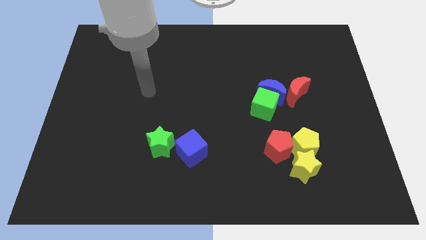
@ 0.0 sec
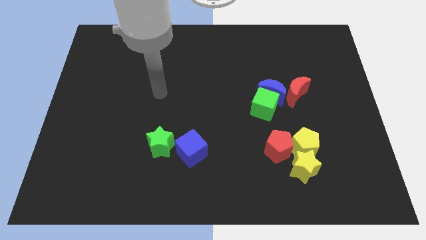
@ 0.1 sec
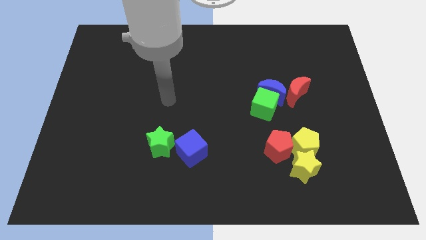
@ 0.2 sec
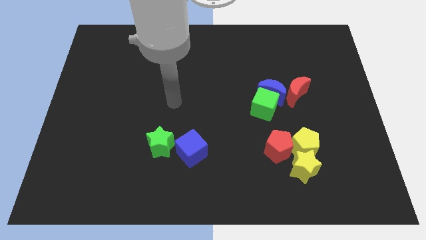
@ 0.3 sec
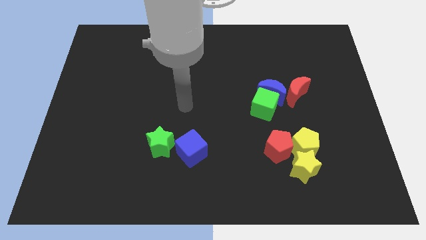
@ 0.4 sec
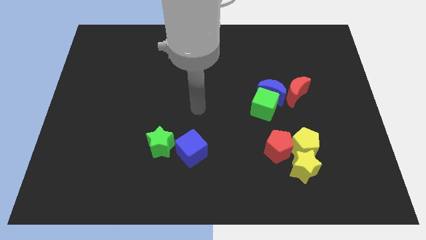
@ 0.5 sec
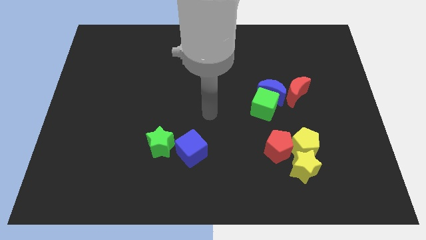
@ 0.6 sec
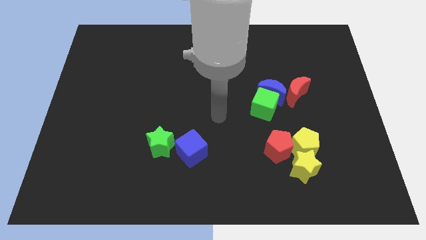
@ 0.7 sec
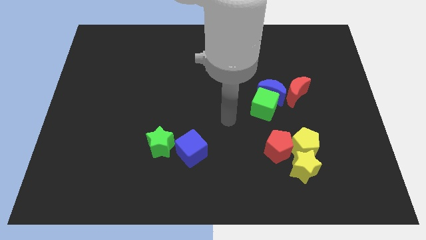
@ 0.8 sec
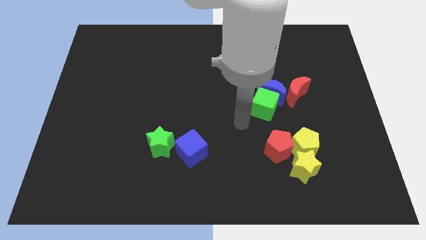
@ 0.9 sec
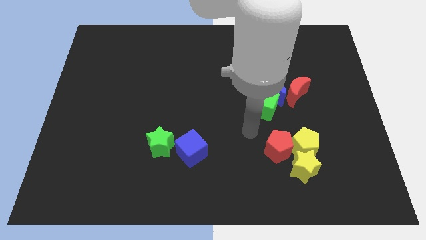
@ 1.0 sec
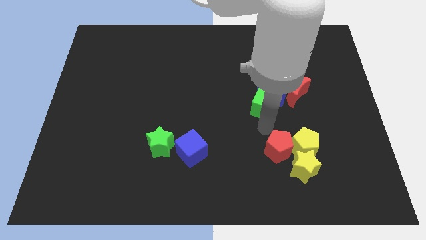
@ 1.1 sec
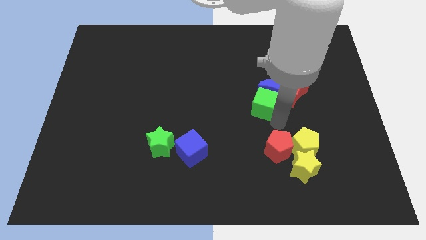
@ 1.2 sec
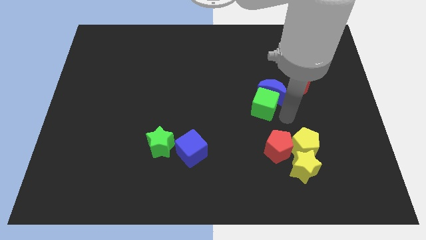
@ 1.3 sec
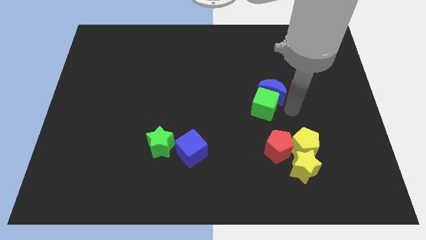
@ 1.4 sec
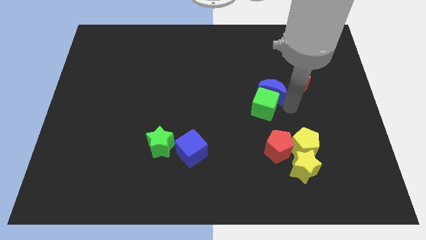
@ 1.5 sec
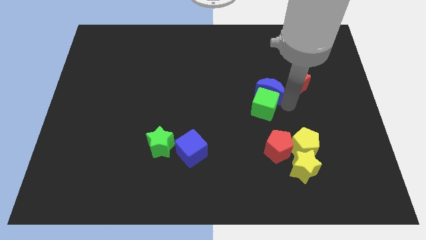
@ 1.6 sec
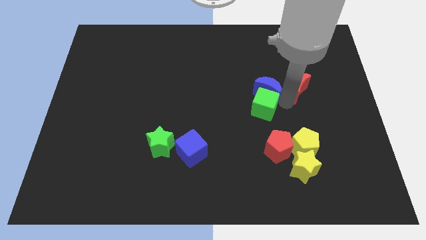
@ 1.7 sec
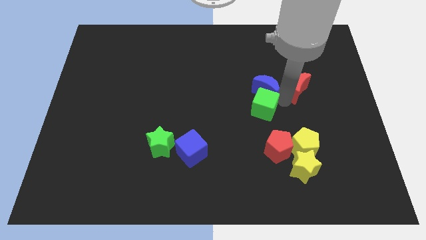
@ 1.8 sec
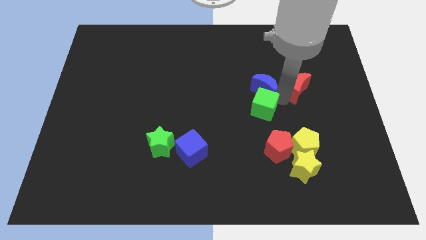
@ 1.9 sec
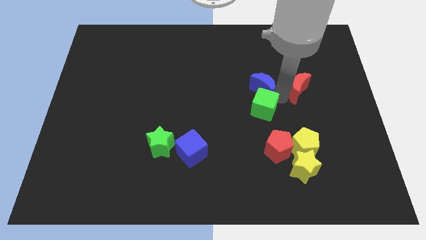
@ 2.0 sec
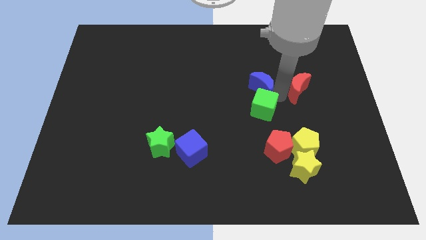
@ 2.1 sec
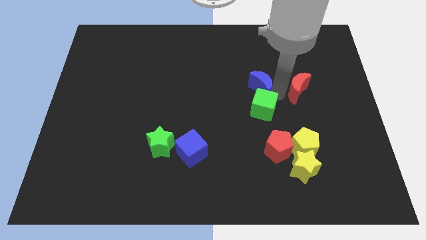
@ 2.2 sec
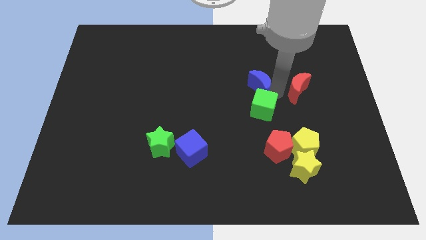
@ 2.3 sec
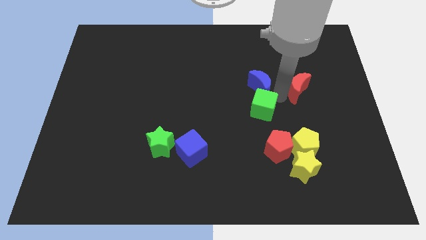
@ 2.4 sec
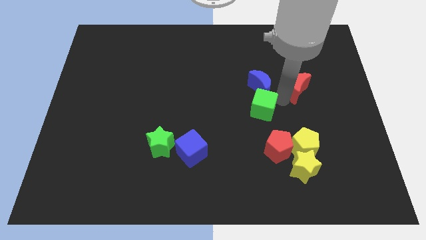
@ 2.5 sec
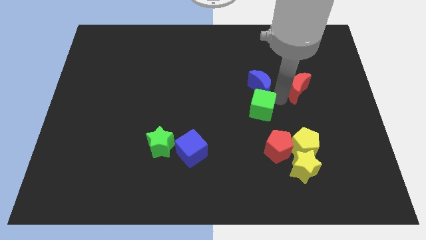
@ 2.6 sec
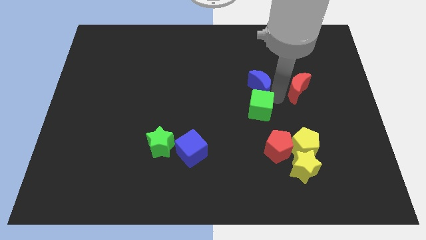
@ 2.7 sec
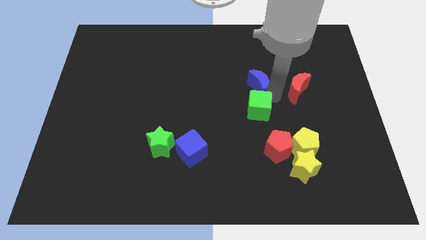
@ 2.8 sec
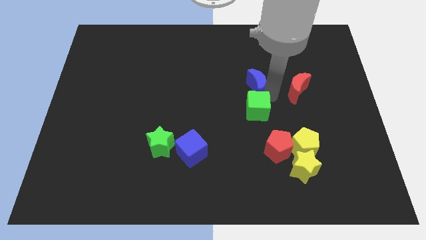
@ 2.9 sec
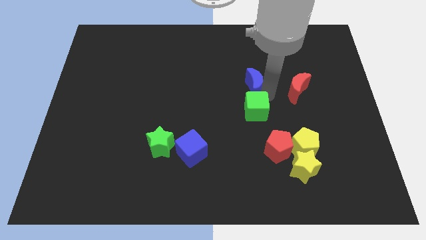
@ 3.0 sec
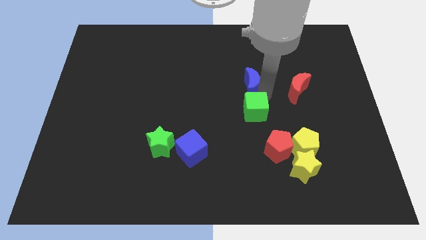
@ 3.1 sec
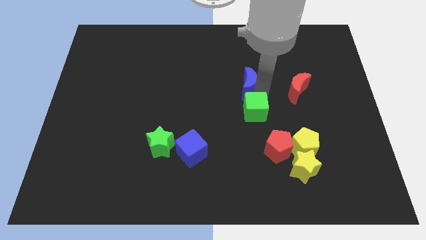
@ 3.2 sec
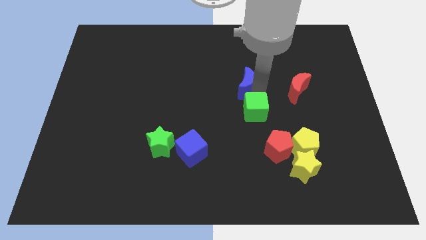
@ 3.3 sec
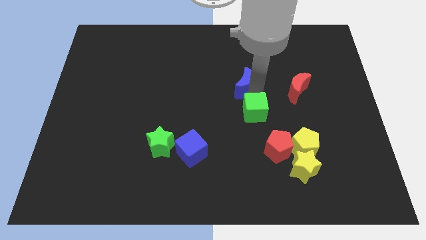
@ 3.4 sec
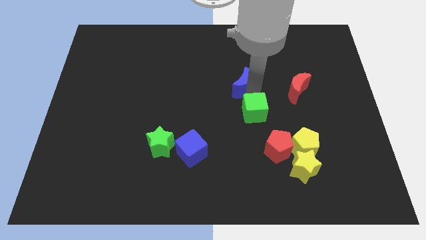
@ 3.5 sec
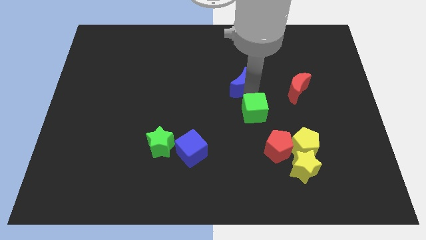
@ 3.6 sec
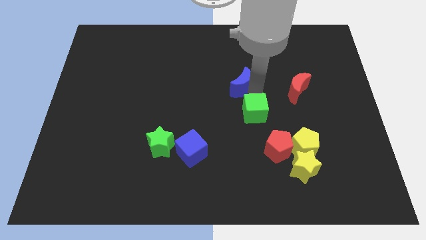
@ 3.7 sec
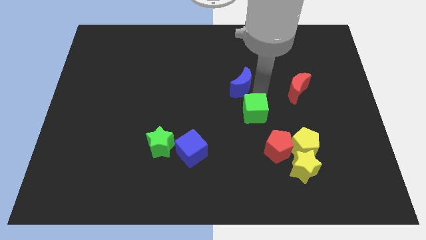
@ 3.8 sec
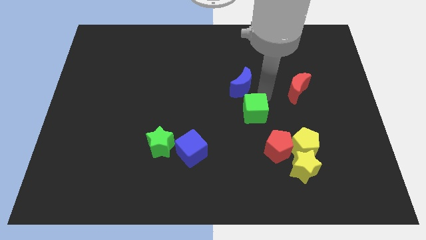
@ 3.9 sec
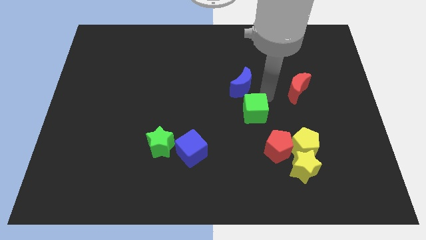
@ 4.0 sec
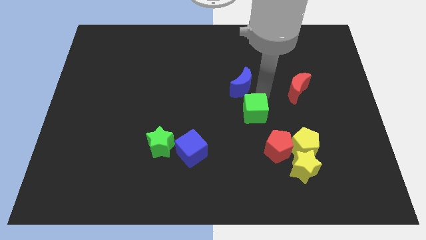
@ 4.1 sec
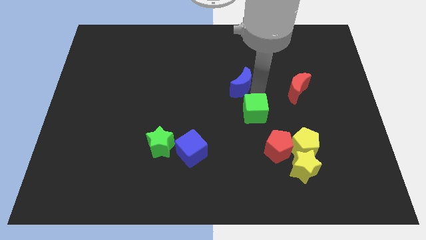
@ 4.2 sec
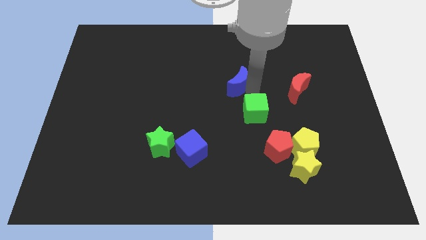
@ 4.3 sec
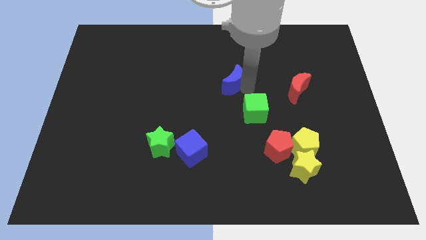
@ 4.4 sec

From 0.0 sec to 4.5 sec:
separate the blue moon from the green cube and red moon

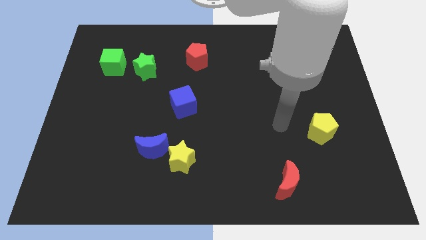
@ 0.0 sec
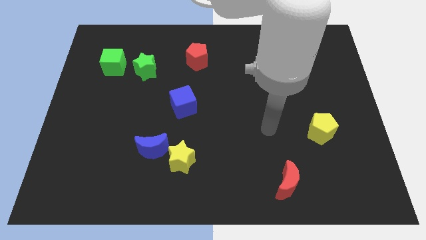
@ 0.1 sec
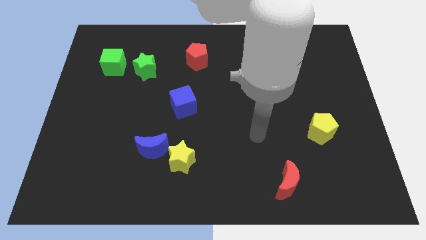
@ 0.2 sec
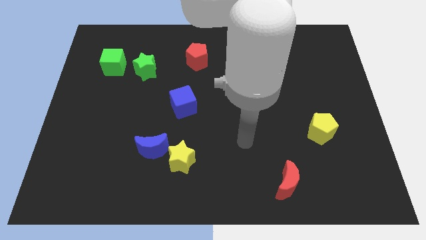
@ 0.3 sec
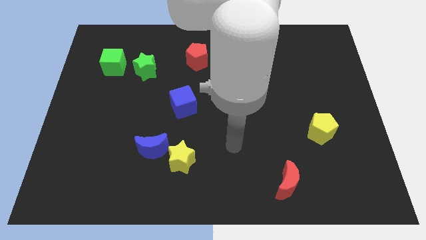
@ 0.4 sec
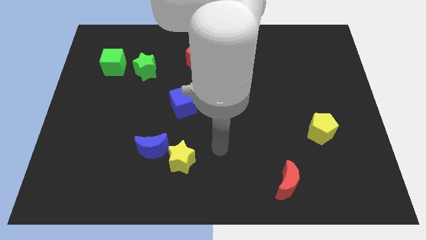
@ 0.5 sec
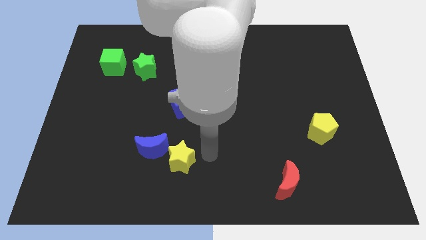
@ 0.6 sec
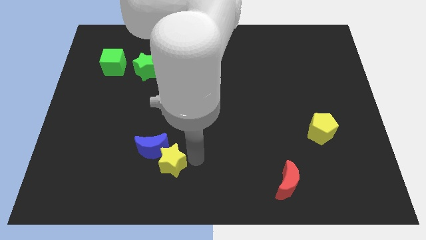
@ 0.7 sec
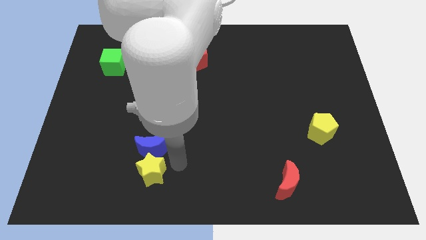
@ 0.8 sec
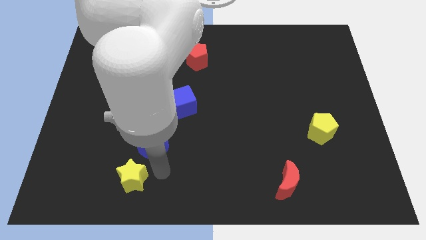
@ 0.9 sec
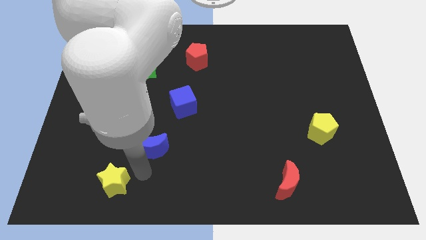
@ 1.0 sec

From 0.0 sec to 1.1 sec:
move the blue moon away from the yellow star

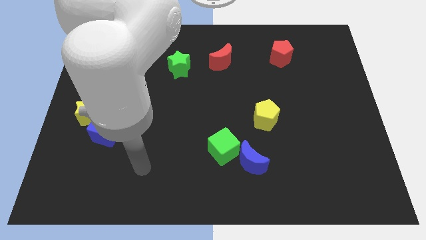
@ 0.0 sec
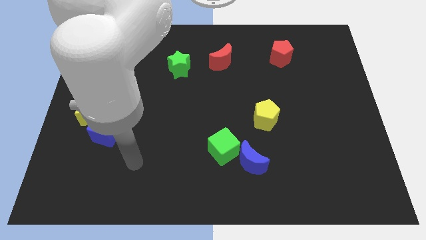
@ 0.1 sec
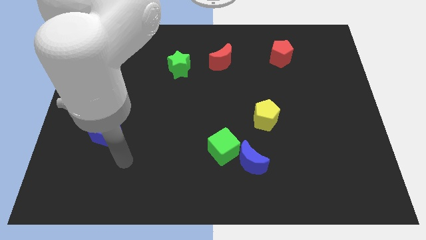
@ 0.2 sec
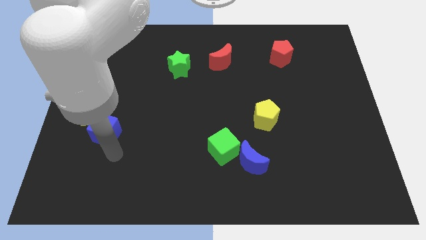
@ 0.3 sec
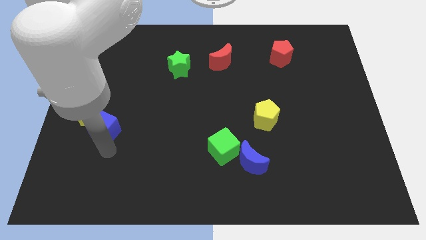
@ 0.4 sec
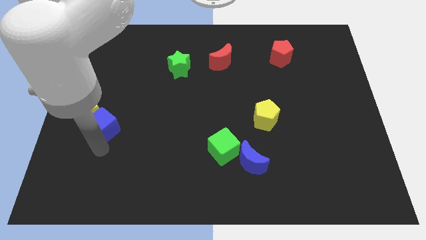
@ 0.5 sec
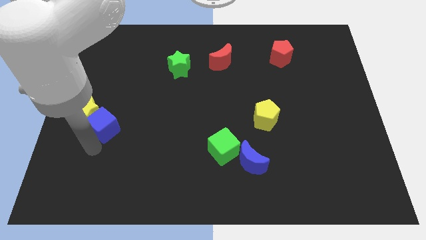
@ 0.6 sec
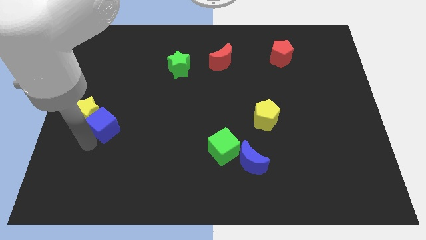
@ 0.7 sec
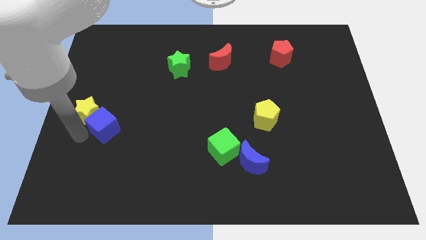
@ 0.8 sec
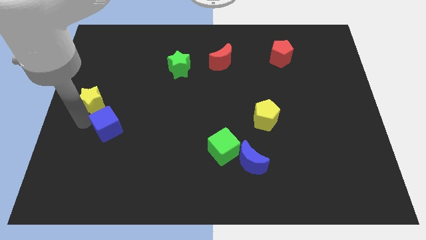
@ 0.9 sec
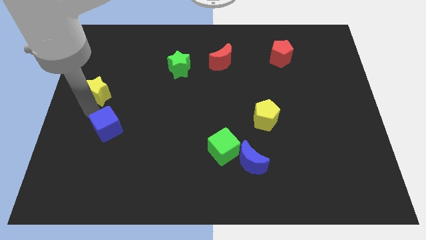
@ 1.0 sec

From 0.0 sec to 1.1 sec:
separate the blue cube from the yellow star

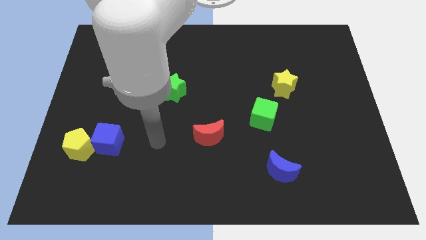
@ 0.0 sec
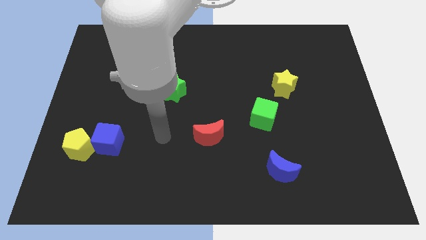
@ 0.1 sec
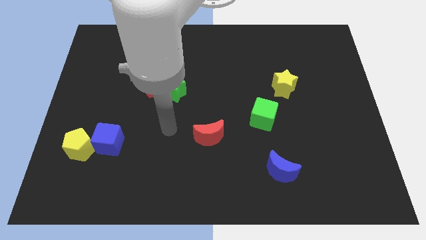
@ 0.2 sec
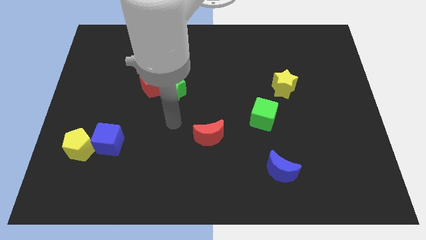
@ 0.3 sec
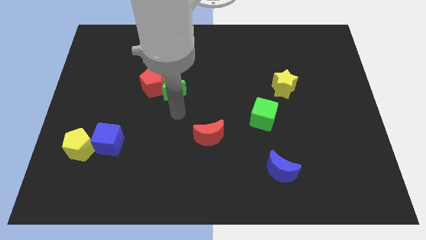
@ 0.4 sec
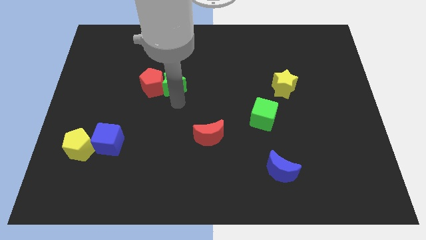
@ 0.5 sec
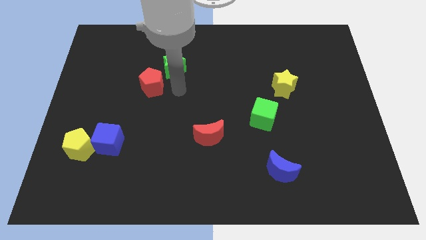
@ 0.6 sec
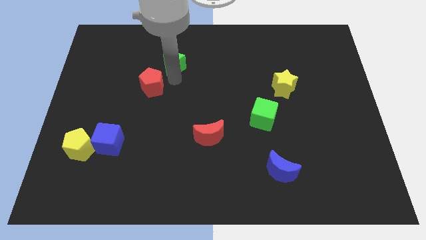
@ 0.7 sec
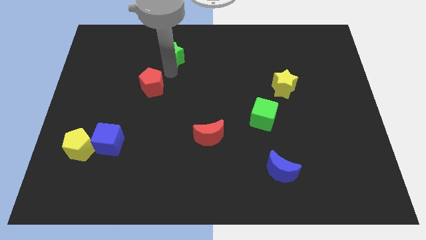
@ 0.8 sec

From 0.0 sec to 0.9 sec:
move the red pentagon away from the green star

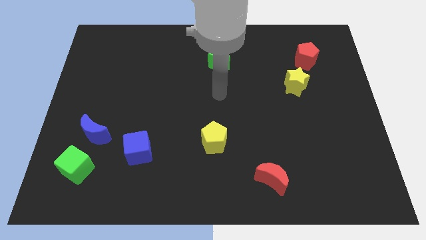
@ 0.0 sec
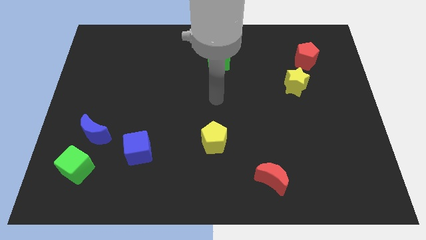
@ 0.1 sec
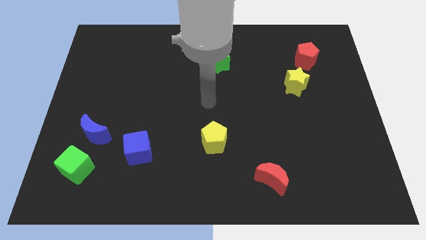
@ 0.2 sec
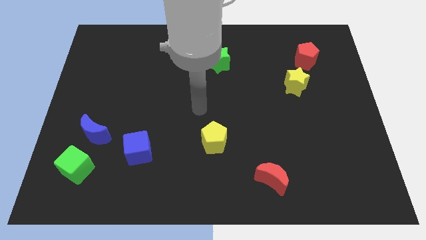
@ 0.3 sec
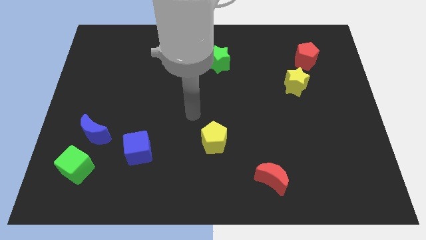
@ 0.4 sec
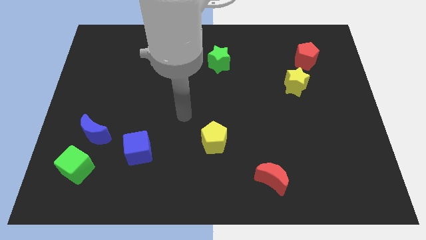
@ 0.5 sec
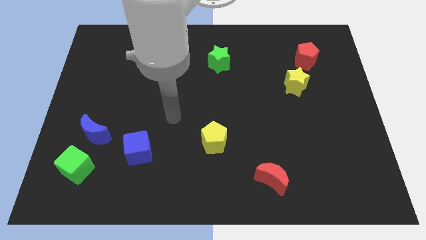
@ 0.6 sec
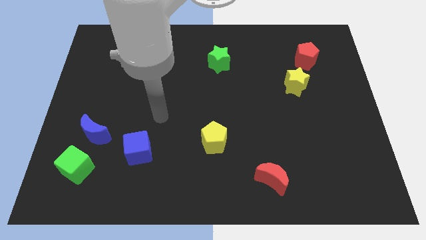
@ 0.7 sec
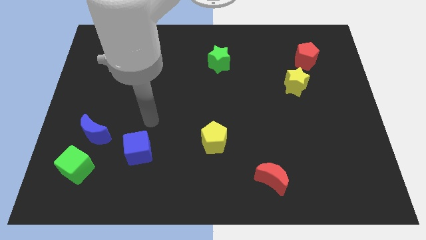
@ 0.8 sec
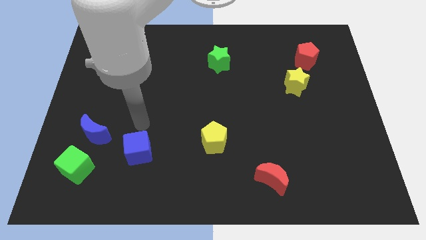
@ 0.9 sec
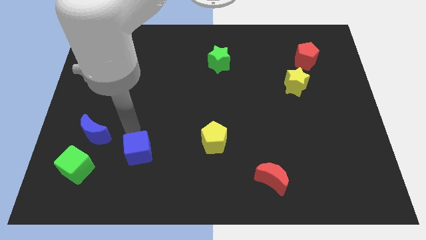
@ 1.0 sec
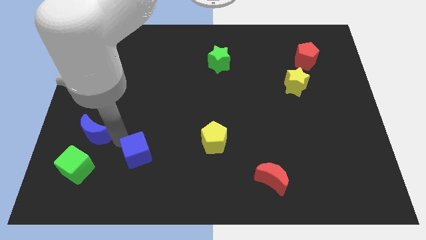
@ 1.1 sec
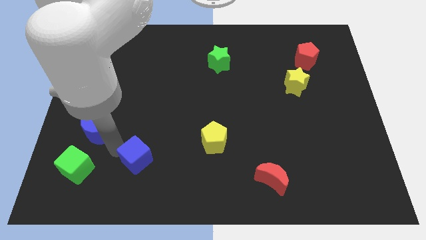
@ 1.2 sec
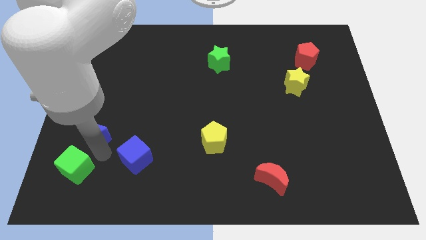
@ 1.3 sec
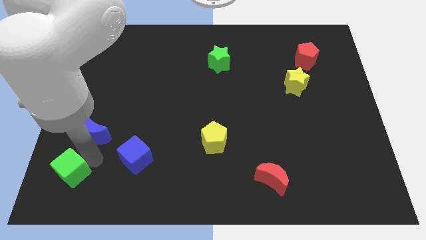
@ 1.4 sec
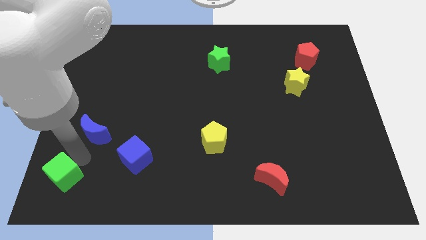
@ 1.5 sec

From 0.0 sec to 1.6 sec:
pull the blue moon apart from the green cube

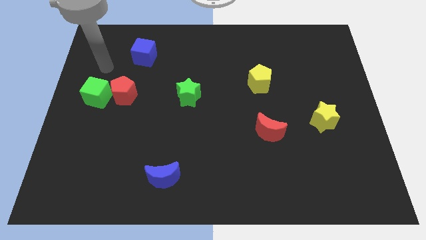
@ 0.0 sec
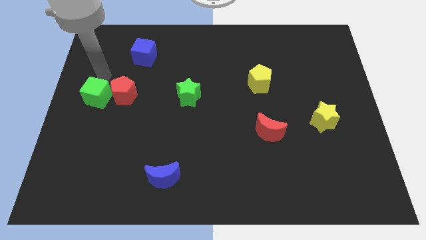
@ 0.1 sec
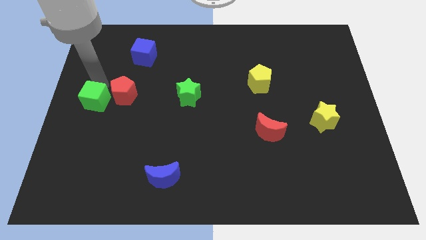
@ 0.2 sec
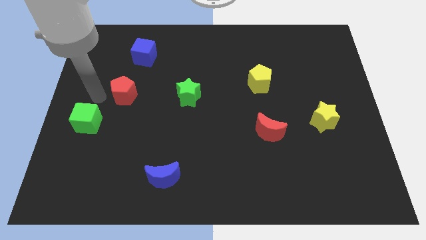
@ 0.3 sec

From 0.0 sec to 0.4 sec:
move the red pentagon away from the green cube
